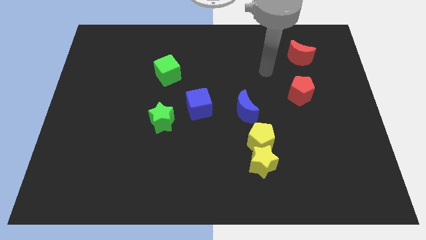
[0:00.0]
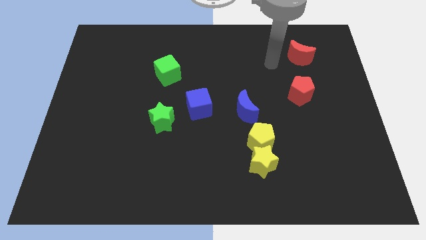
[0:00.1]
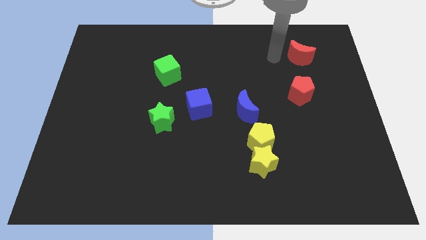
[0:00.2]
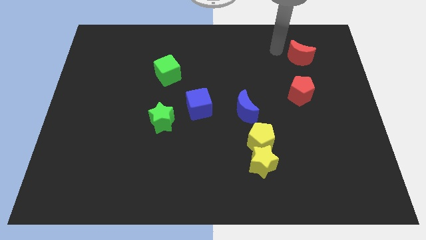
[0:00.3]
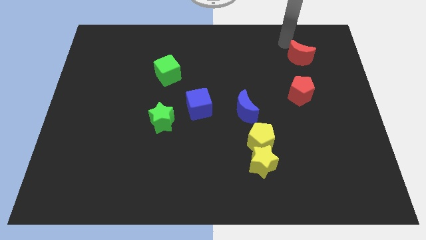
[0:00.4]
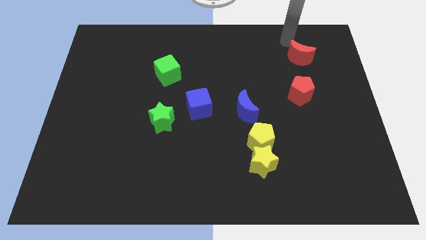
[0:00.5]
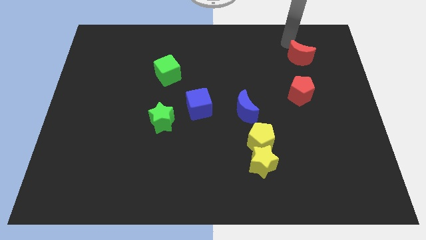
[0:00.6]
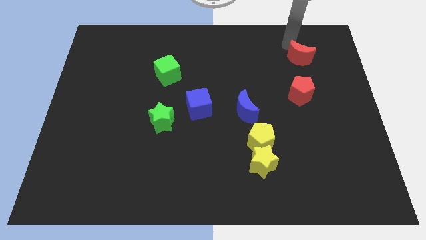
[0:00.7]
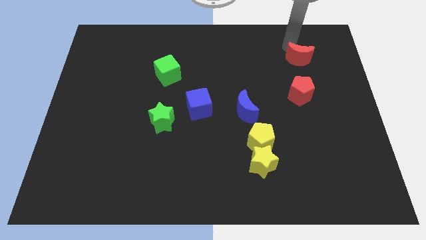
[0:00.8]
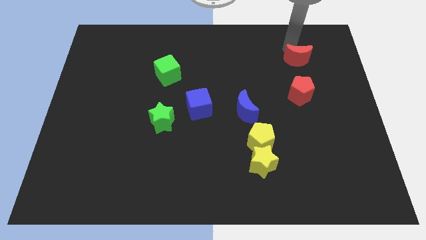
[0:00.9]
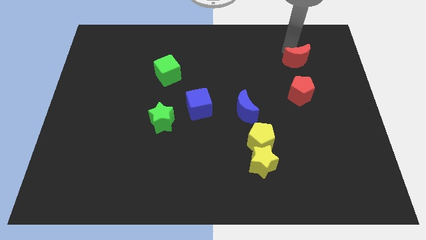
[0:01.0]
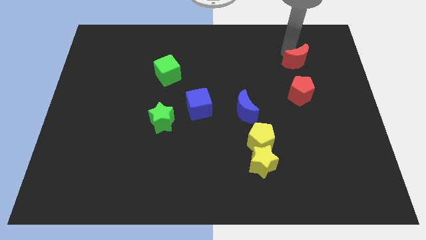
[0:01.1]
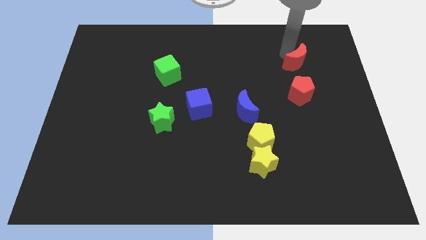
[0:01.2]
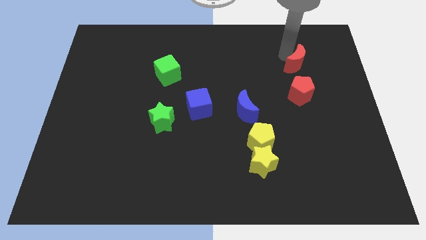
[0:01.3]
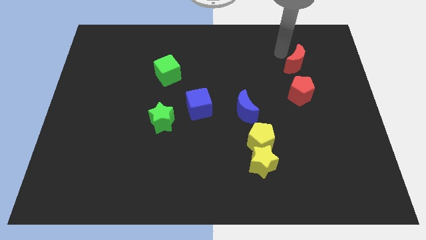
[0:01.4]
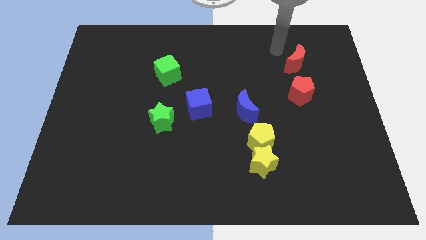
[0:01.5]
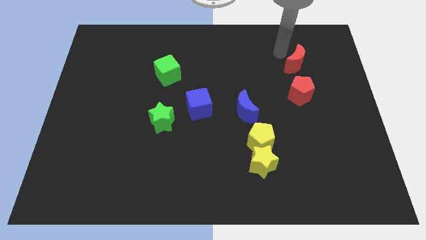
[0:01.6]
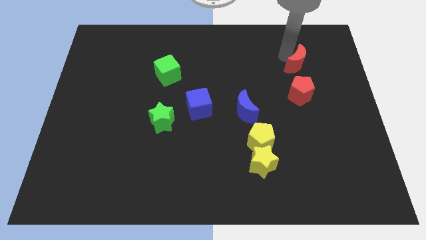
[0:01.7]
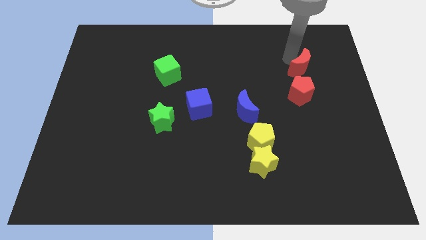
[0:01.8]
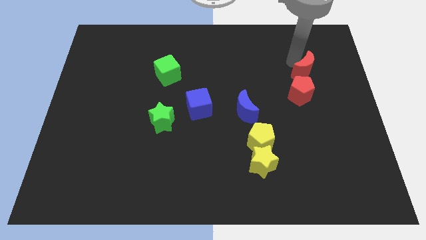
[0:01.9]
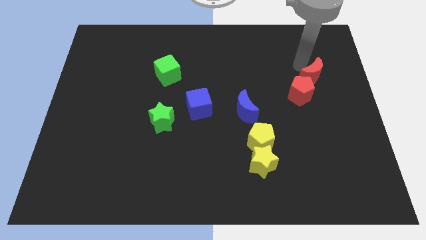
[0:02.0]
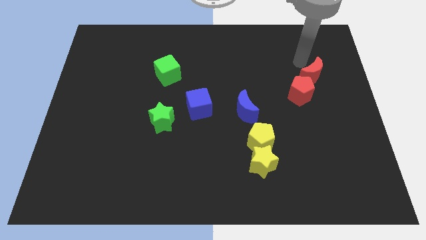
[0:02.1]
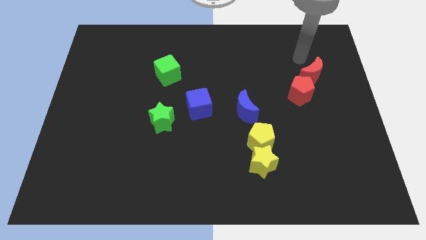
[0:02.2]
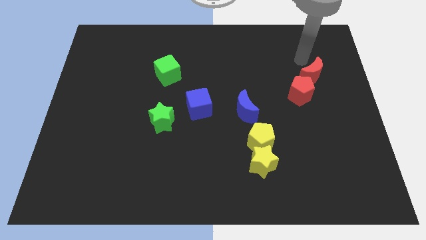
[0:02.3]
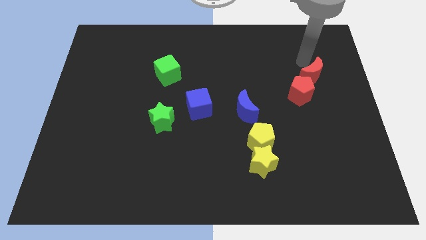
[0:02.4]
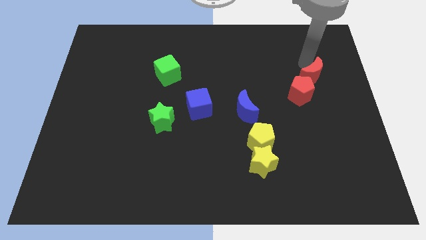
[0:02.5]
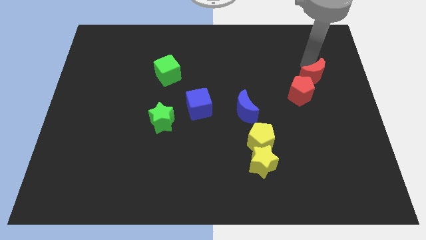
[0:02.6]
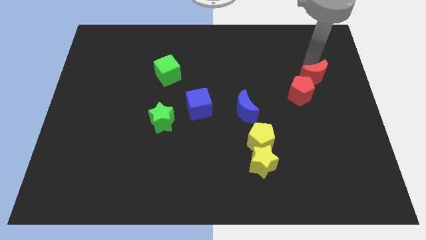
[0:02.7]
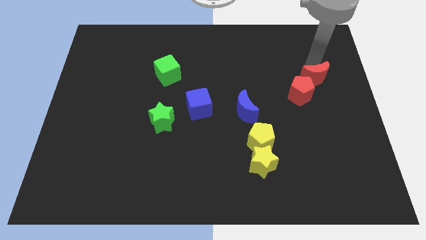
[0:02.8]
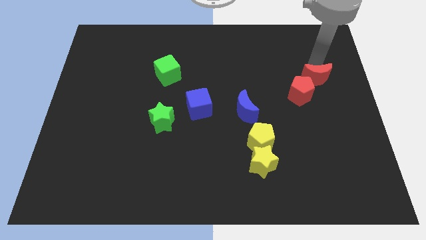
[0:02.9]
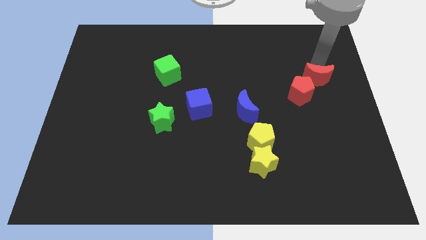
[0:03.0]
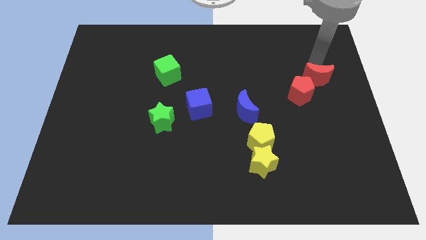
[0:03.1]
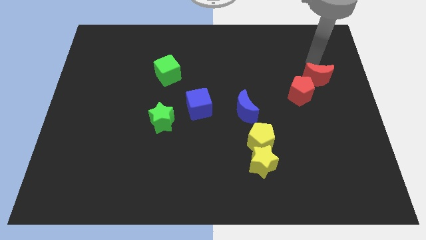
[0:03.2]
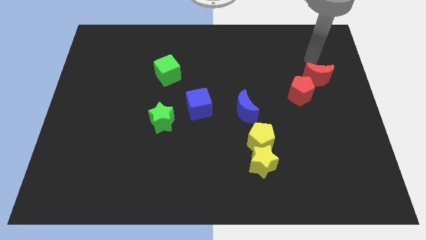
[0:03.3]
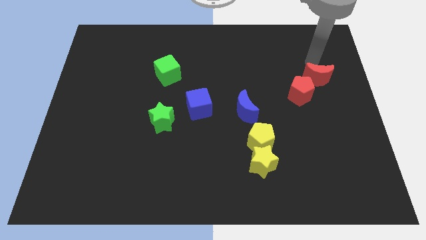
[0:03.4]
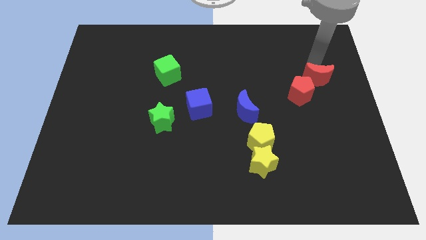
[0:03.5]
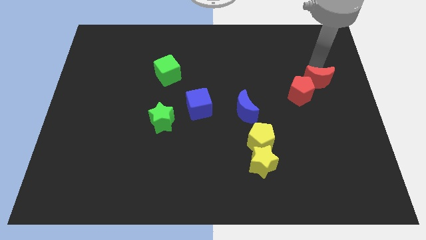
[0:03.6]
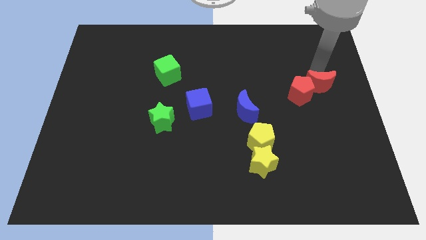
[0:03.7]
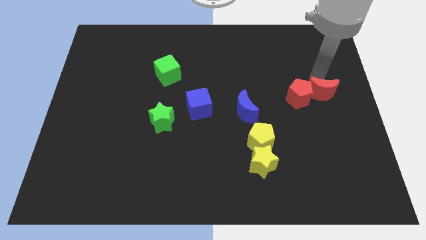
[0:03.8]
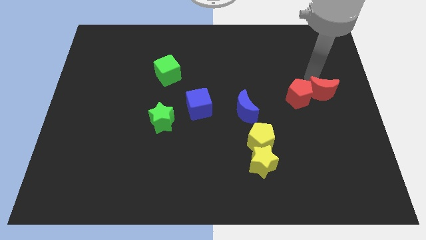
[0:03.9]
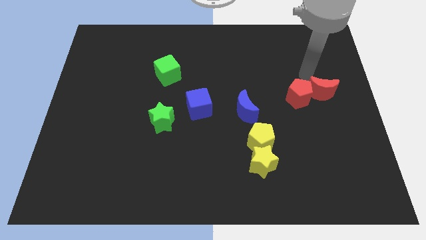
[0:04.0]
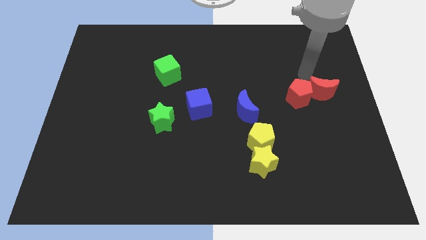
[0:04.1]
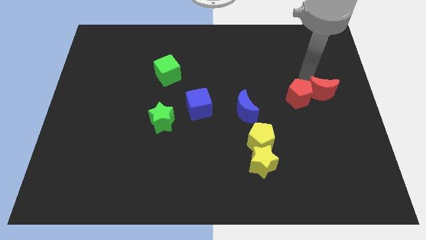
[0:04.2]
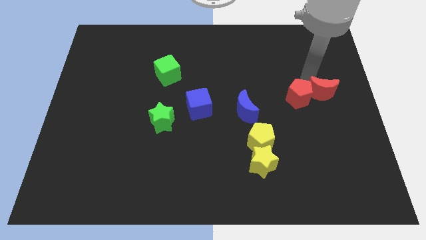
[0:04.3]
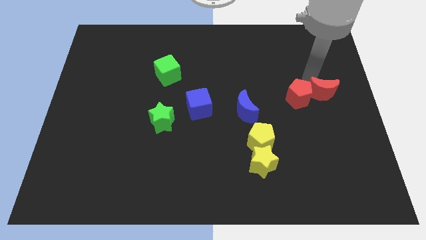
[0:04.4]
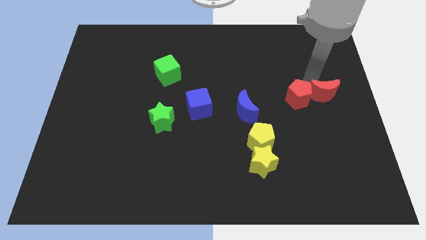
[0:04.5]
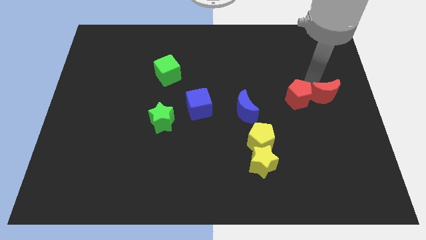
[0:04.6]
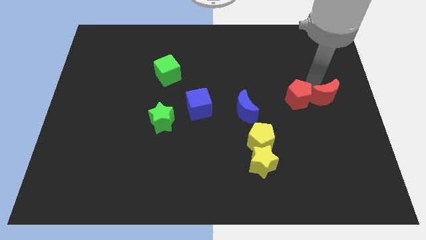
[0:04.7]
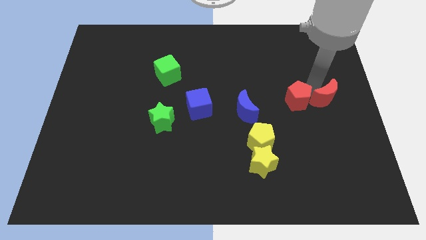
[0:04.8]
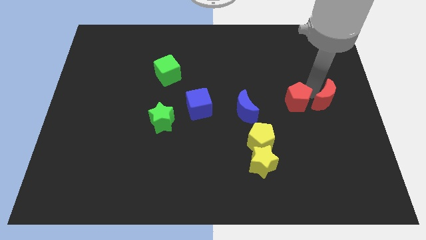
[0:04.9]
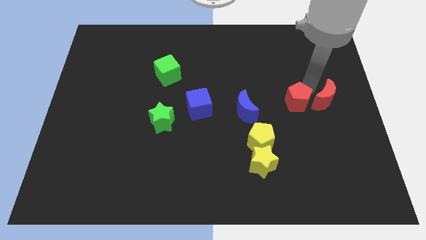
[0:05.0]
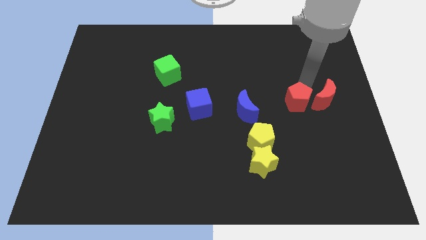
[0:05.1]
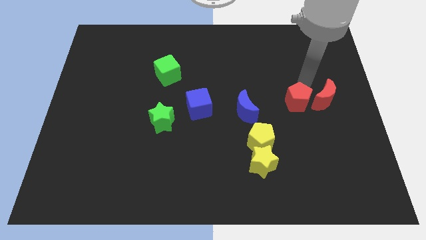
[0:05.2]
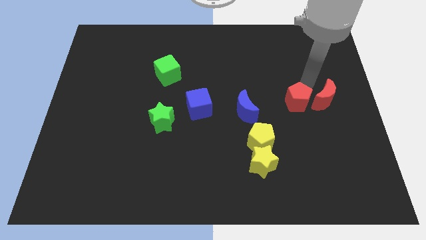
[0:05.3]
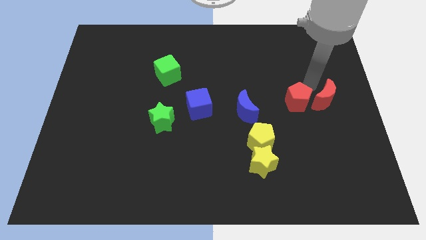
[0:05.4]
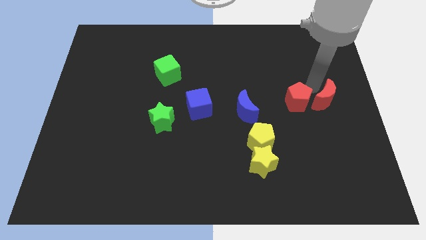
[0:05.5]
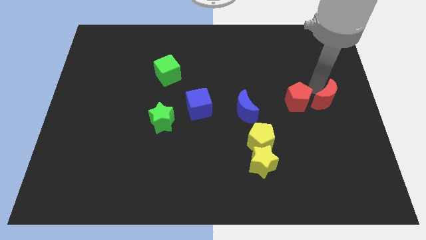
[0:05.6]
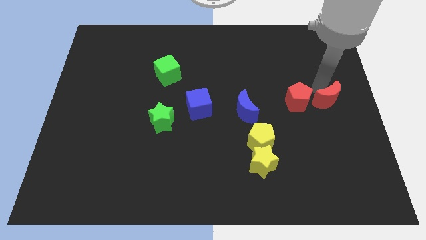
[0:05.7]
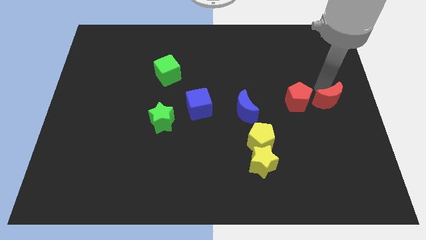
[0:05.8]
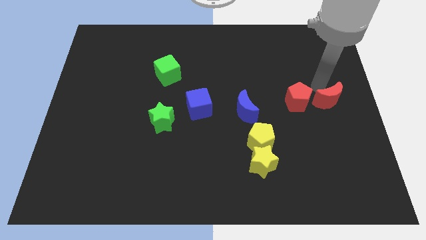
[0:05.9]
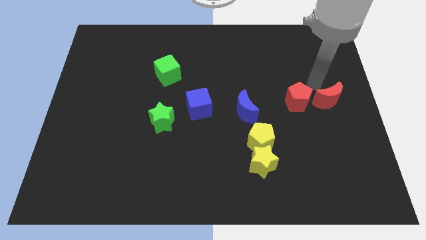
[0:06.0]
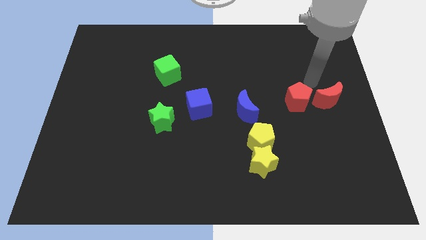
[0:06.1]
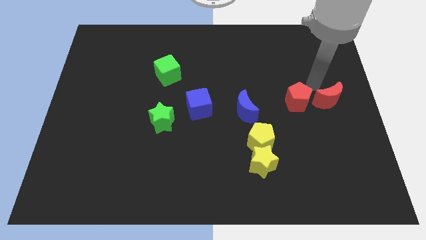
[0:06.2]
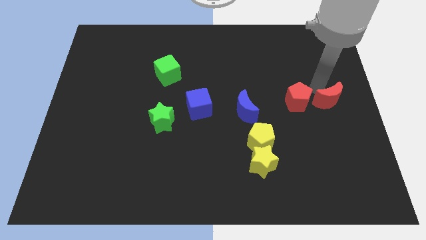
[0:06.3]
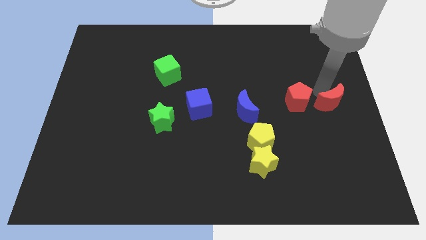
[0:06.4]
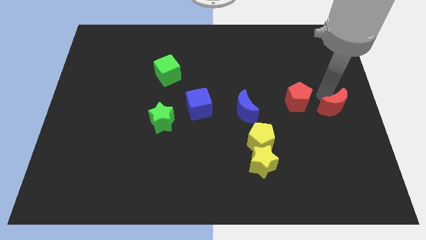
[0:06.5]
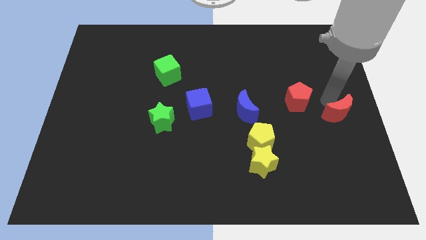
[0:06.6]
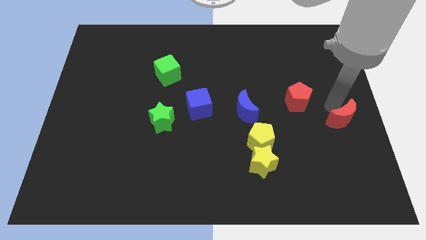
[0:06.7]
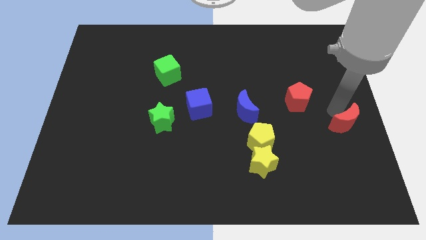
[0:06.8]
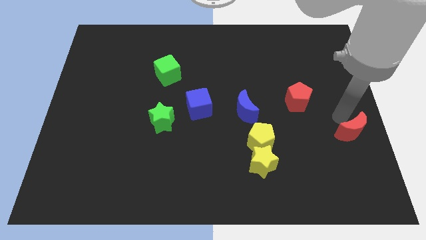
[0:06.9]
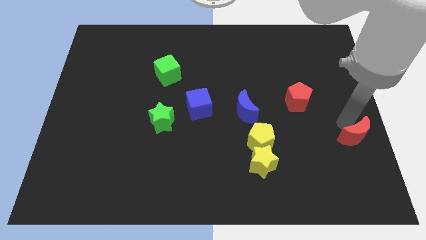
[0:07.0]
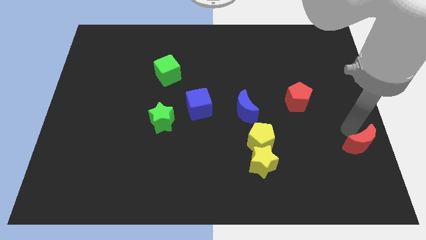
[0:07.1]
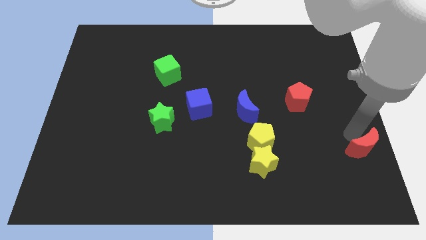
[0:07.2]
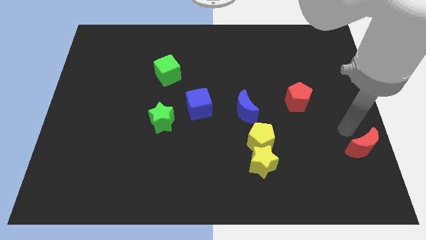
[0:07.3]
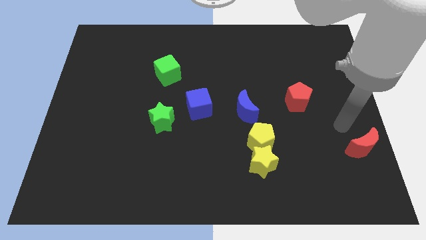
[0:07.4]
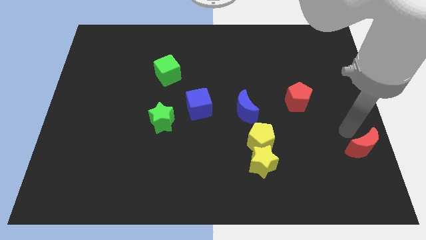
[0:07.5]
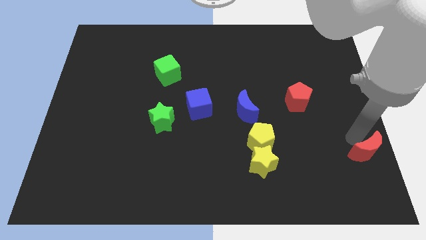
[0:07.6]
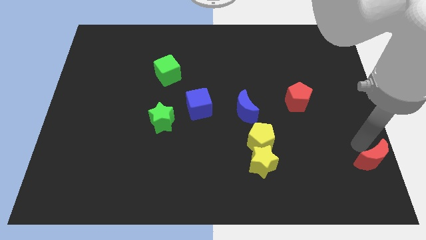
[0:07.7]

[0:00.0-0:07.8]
put the red moon to the bottom right corner
